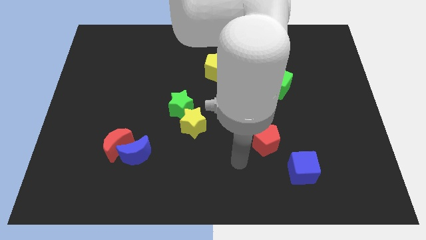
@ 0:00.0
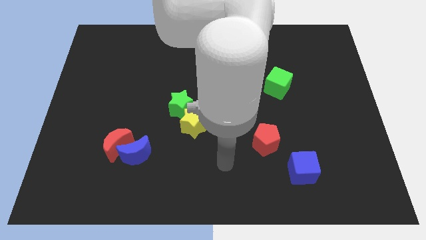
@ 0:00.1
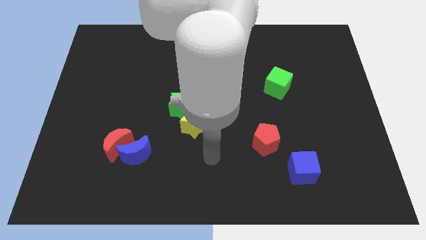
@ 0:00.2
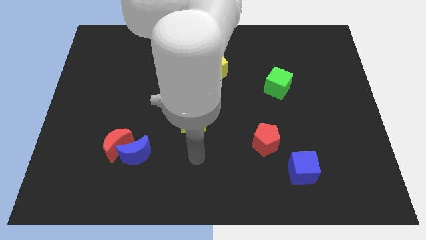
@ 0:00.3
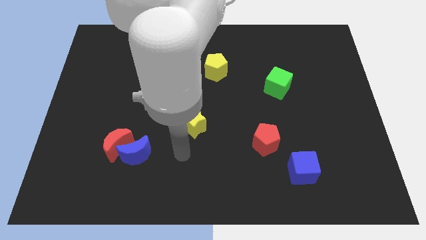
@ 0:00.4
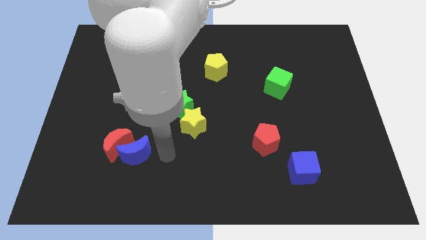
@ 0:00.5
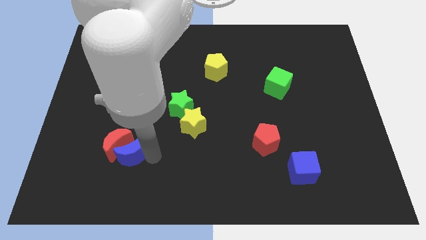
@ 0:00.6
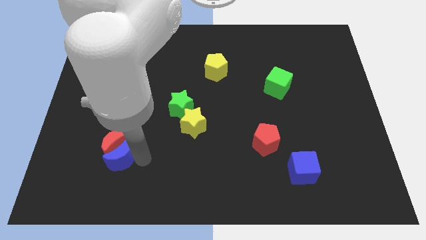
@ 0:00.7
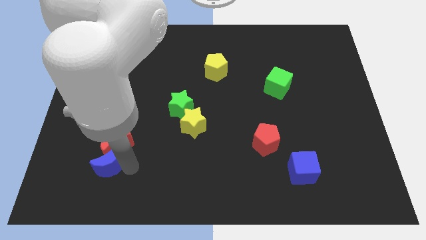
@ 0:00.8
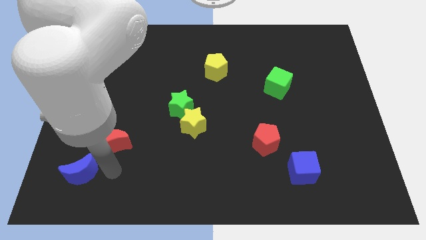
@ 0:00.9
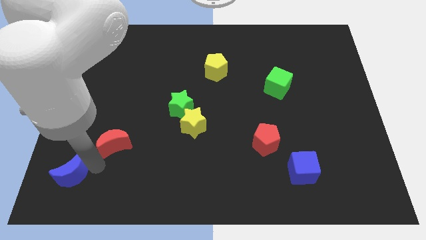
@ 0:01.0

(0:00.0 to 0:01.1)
move the red moon away from the blue moon

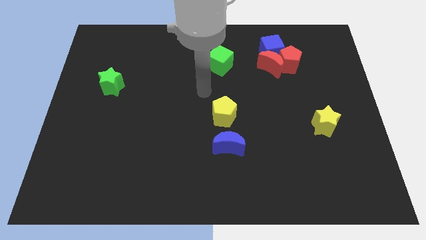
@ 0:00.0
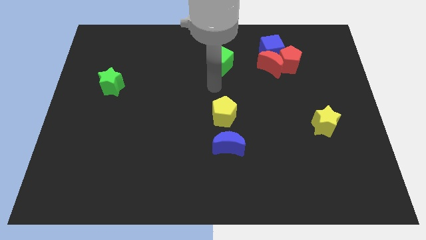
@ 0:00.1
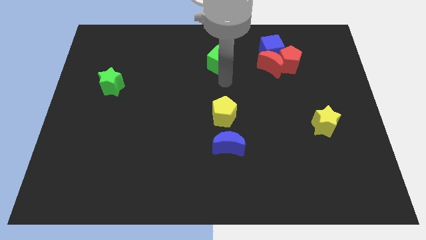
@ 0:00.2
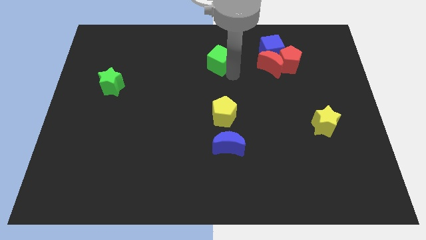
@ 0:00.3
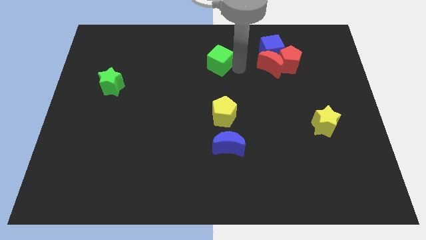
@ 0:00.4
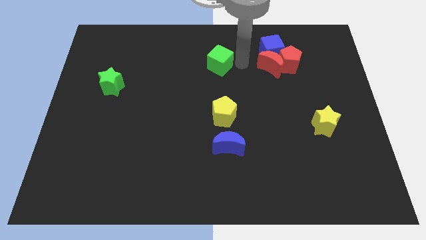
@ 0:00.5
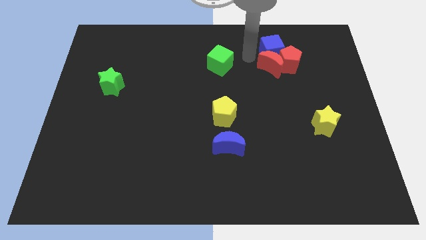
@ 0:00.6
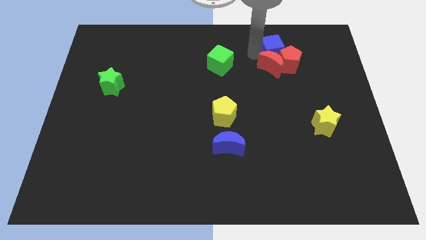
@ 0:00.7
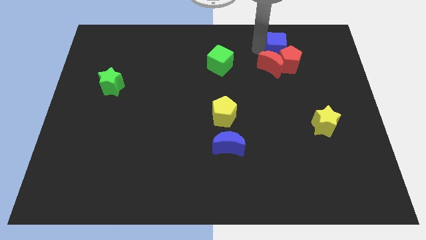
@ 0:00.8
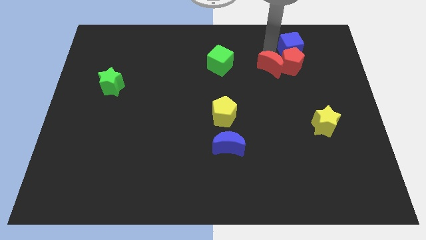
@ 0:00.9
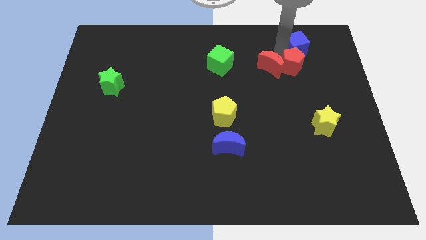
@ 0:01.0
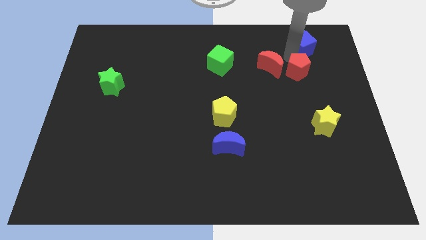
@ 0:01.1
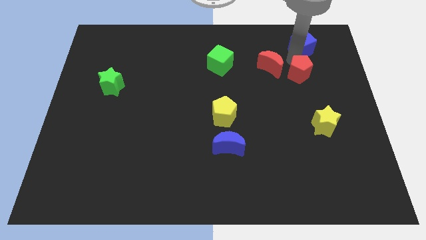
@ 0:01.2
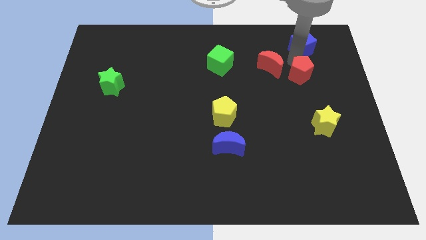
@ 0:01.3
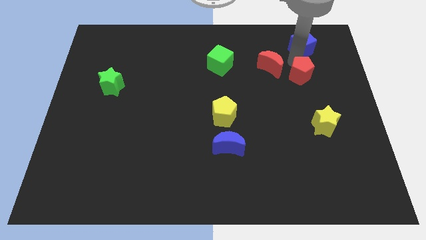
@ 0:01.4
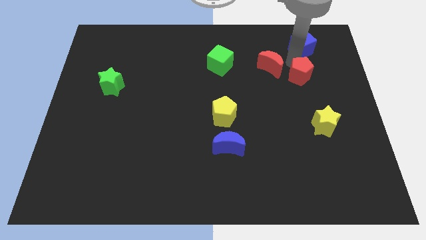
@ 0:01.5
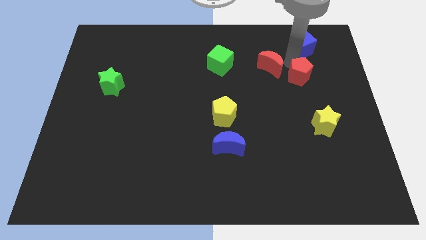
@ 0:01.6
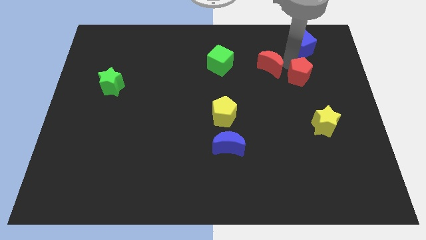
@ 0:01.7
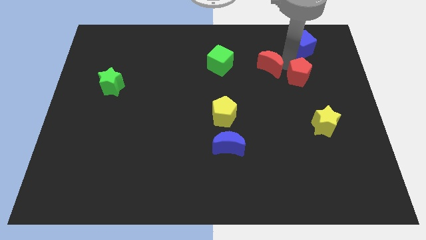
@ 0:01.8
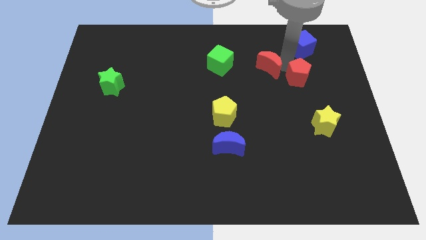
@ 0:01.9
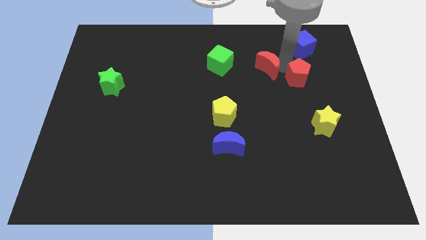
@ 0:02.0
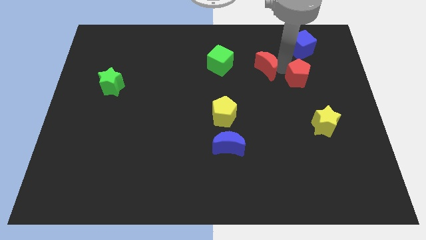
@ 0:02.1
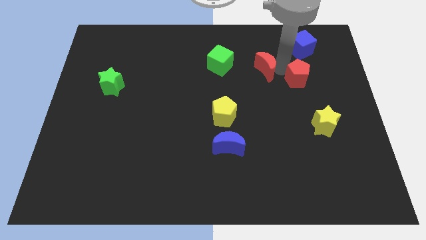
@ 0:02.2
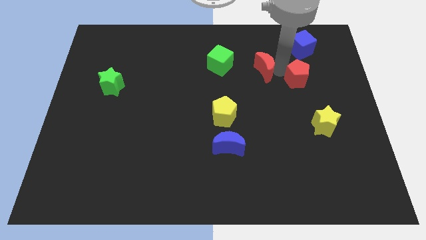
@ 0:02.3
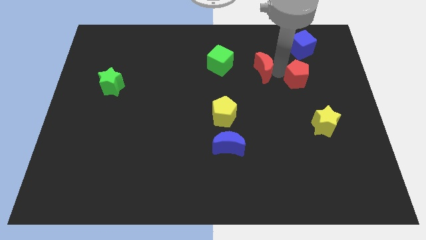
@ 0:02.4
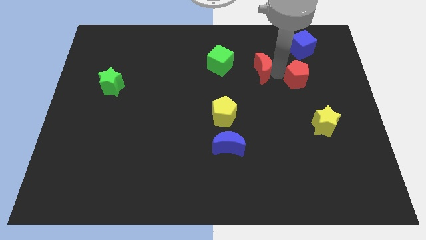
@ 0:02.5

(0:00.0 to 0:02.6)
separate the red moon from the red pentagon and blue cube

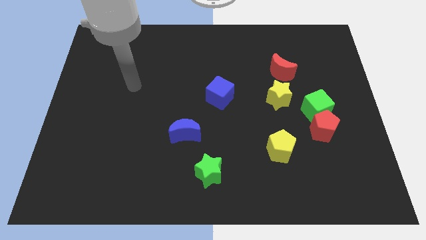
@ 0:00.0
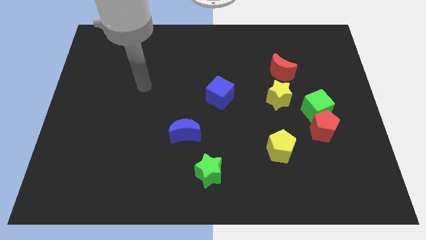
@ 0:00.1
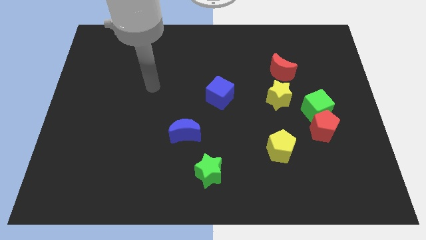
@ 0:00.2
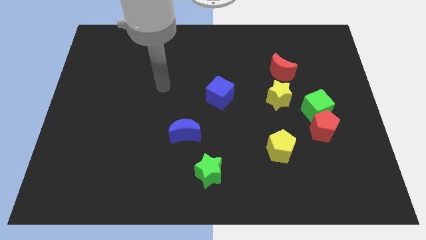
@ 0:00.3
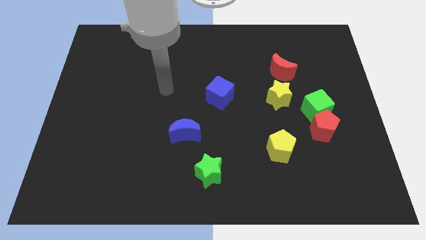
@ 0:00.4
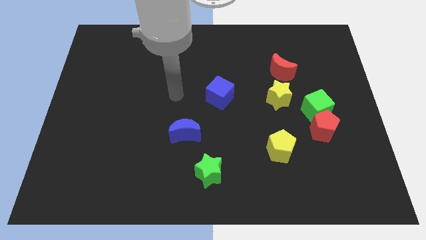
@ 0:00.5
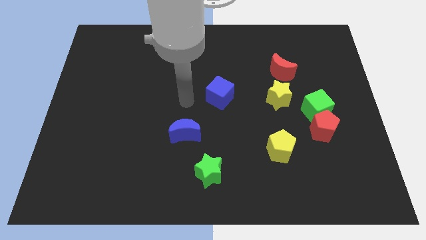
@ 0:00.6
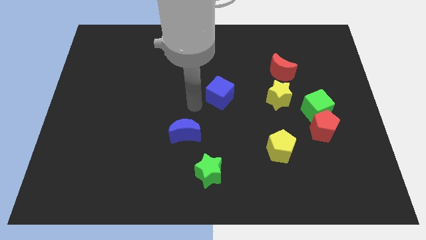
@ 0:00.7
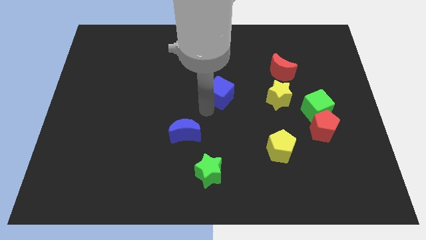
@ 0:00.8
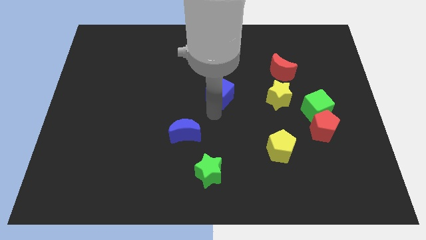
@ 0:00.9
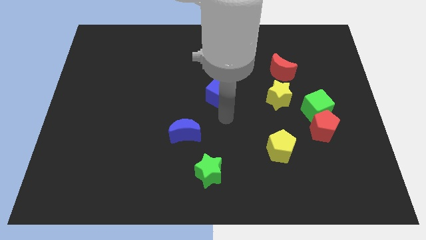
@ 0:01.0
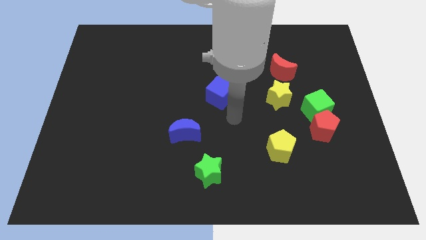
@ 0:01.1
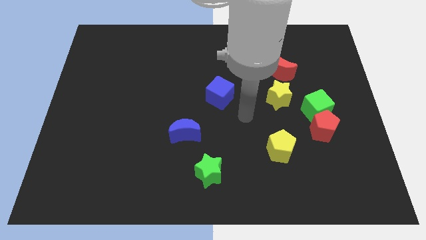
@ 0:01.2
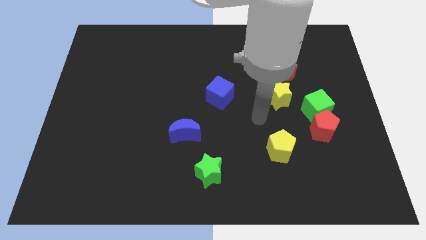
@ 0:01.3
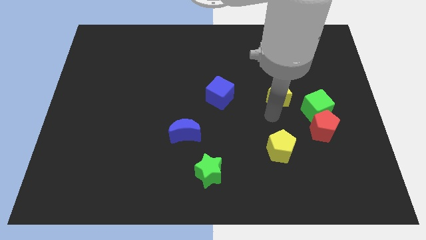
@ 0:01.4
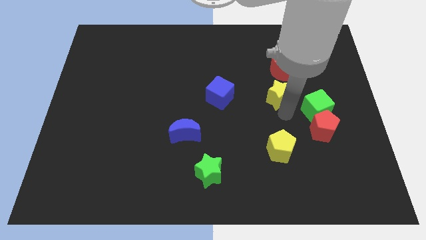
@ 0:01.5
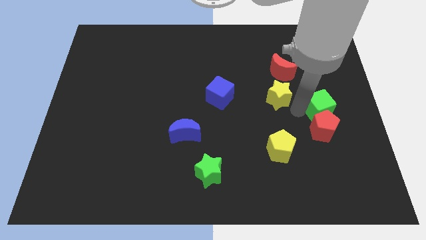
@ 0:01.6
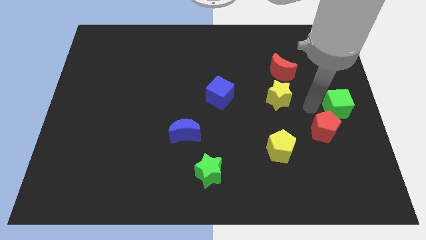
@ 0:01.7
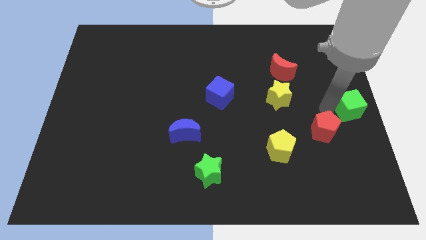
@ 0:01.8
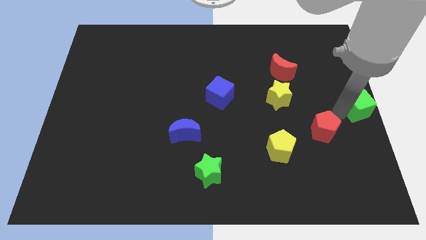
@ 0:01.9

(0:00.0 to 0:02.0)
pull the red pentagon apart from the green cube

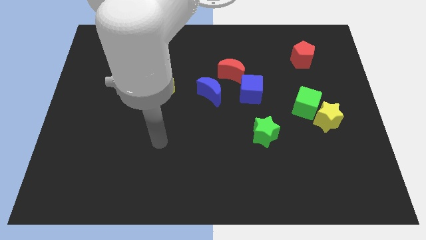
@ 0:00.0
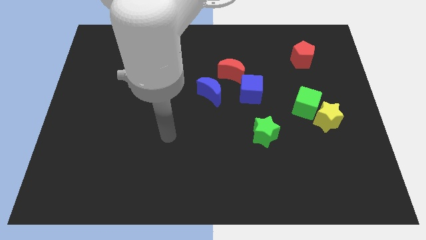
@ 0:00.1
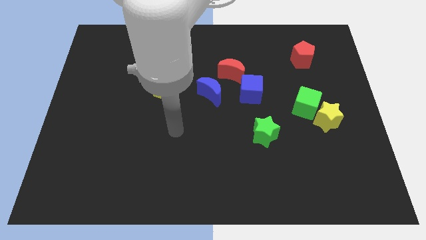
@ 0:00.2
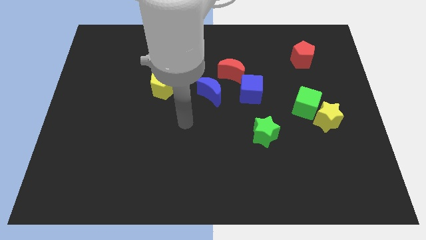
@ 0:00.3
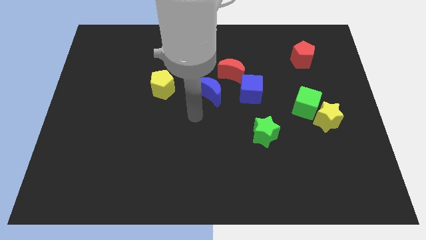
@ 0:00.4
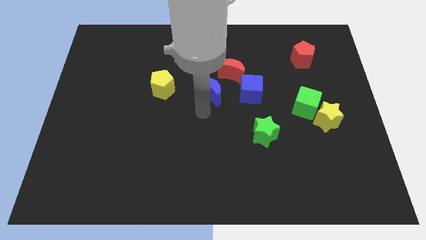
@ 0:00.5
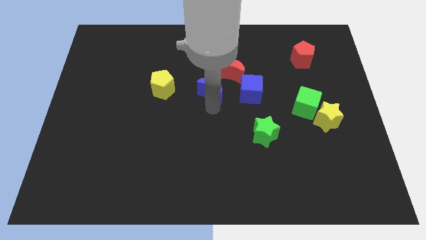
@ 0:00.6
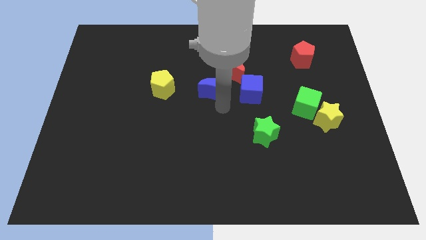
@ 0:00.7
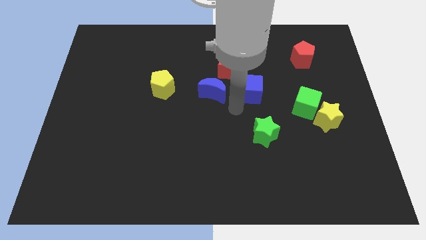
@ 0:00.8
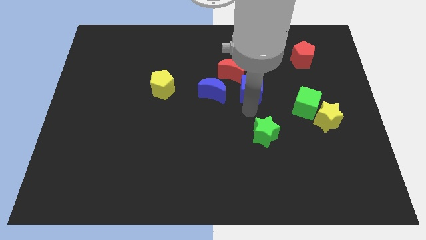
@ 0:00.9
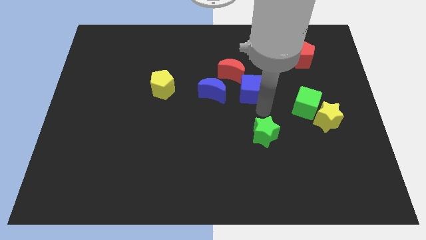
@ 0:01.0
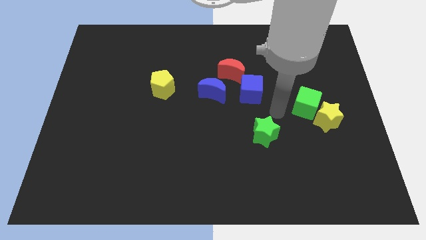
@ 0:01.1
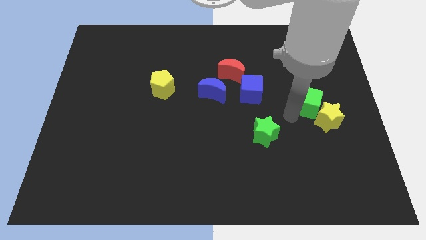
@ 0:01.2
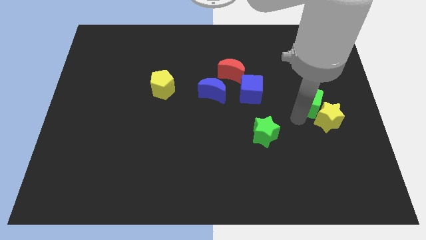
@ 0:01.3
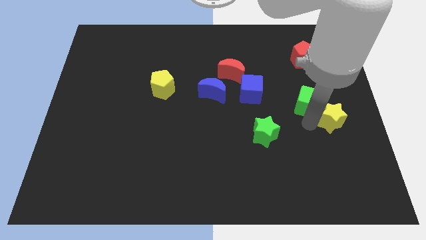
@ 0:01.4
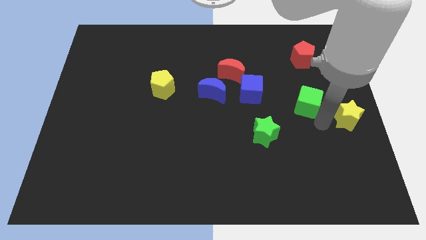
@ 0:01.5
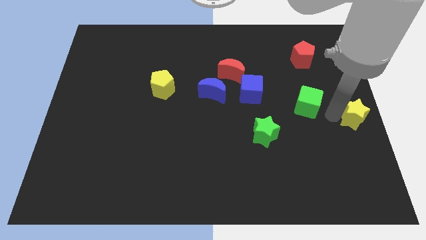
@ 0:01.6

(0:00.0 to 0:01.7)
separate the green cube from the yellow star

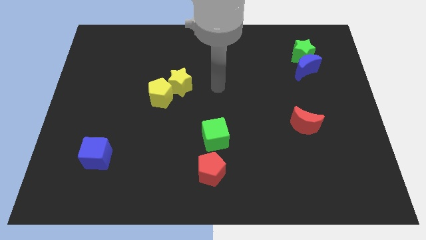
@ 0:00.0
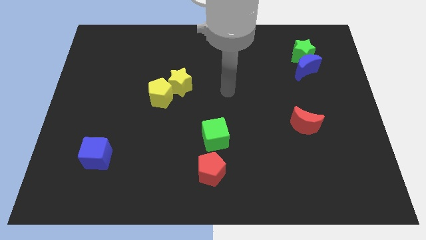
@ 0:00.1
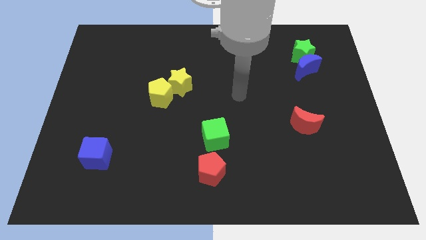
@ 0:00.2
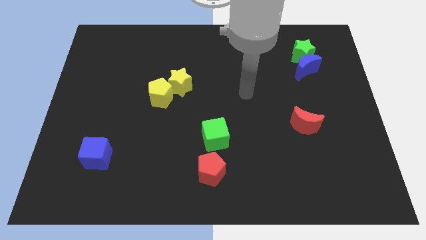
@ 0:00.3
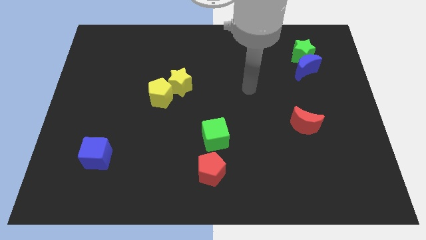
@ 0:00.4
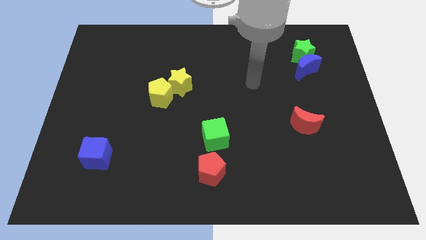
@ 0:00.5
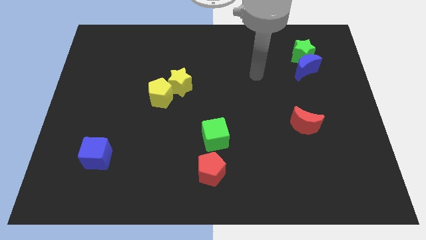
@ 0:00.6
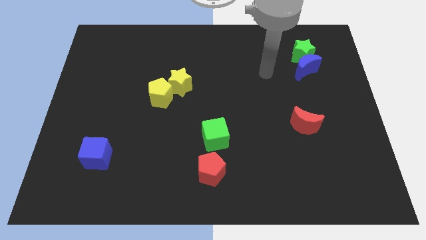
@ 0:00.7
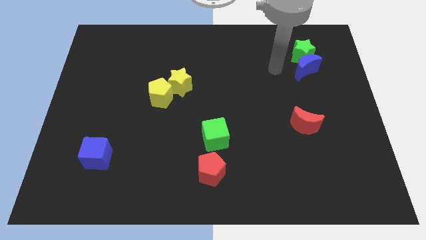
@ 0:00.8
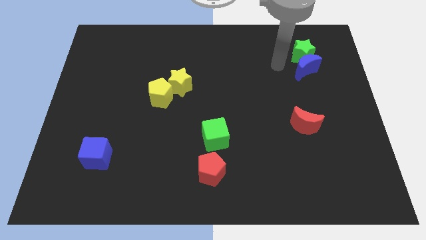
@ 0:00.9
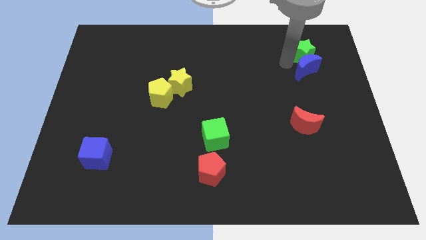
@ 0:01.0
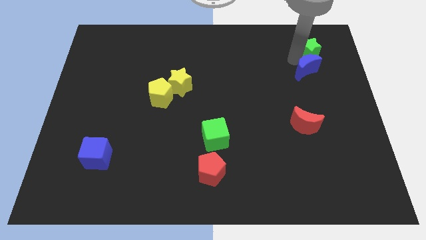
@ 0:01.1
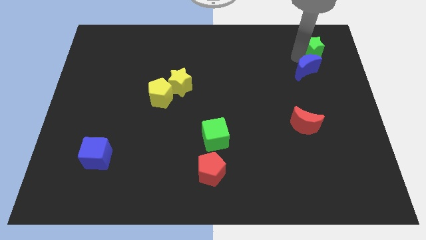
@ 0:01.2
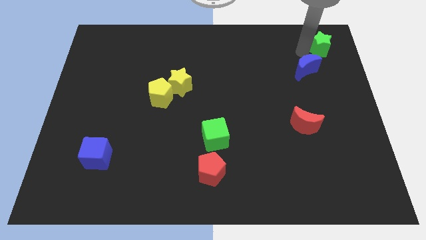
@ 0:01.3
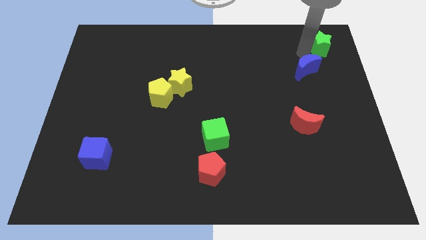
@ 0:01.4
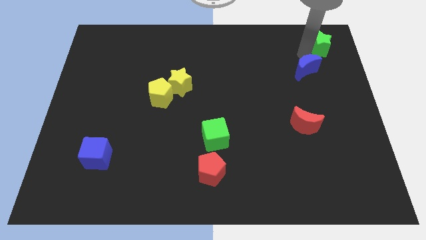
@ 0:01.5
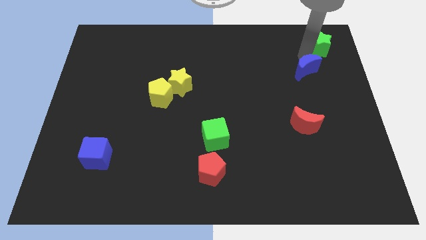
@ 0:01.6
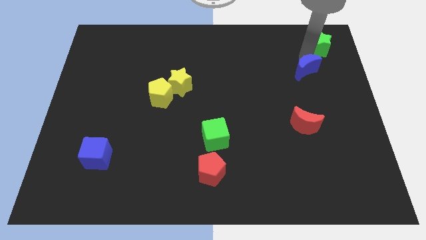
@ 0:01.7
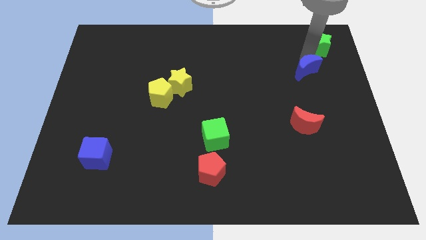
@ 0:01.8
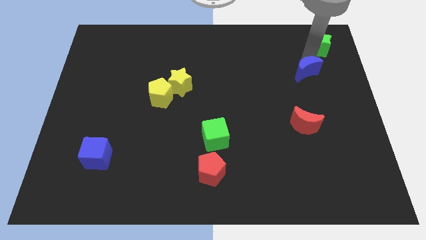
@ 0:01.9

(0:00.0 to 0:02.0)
separate the blue moon from the green star
